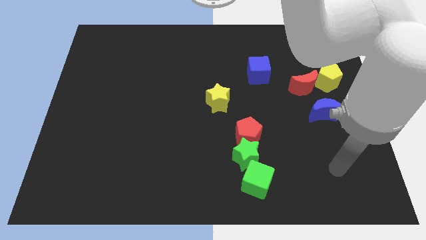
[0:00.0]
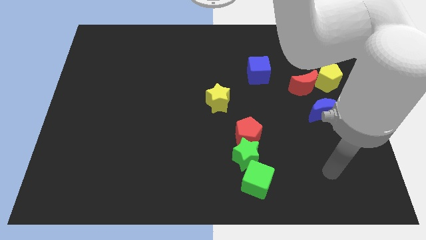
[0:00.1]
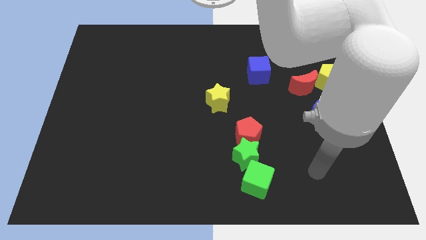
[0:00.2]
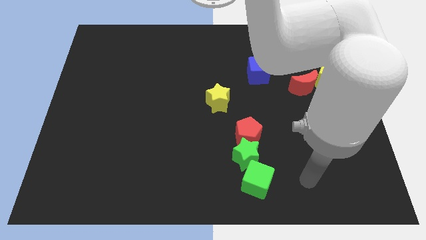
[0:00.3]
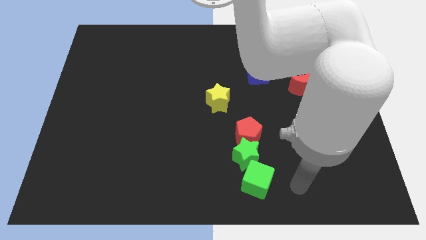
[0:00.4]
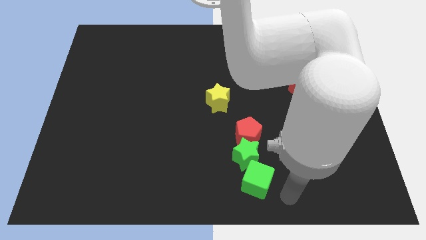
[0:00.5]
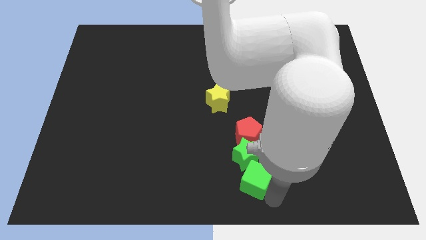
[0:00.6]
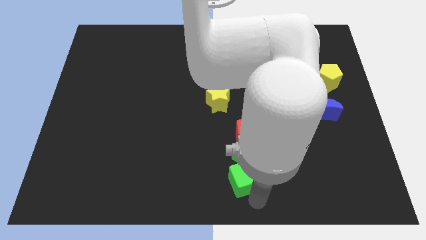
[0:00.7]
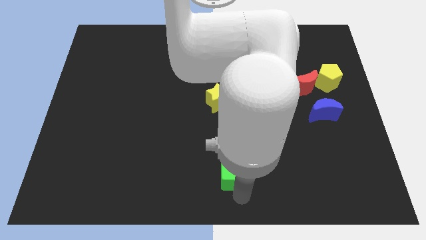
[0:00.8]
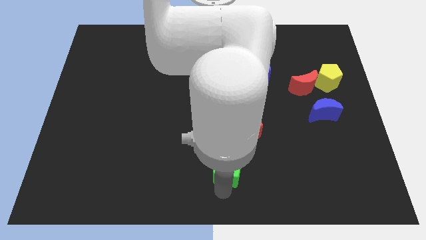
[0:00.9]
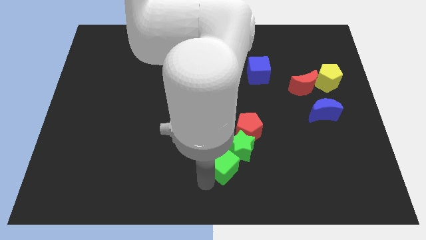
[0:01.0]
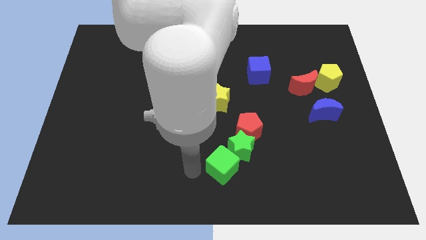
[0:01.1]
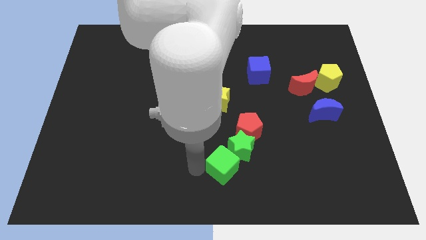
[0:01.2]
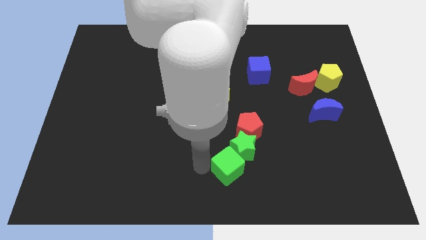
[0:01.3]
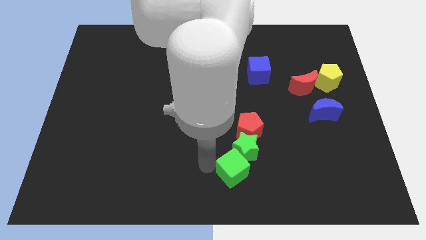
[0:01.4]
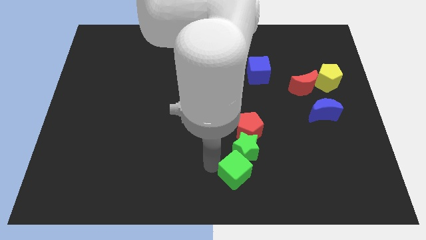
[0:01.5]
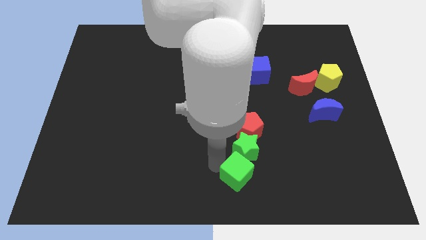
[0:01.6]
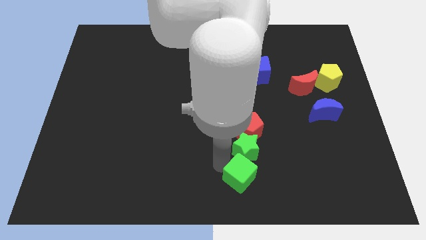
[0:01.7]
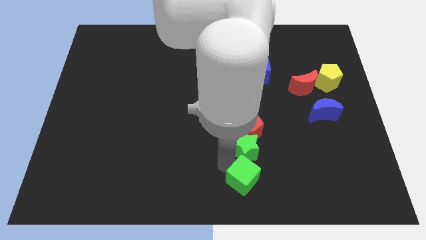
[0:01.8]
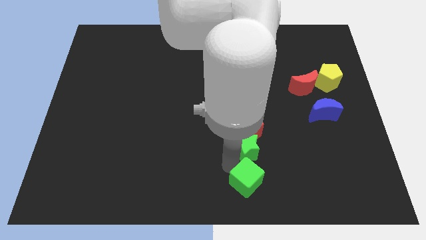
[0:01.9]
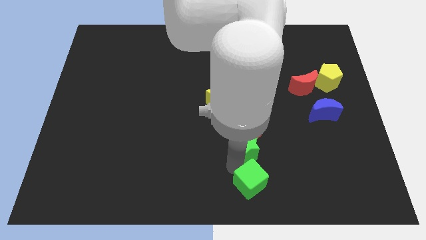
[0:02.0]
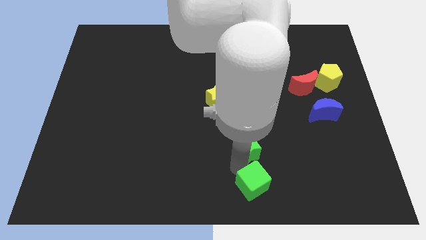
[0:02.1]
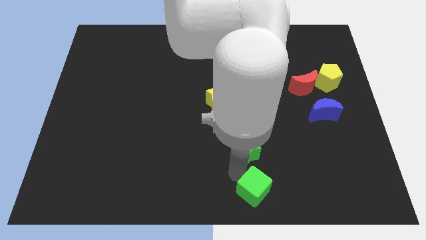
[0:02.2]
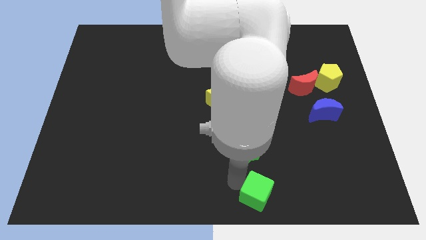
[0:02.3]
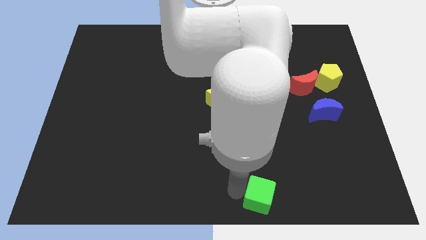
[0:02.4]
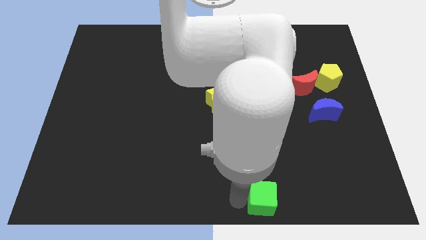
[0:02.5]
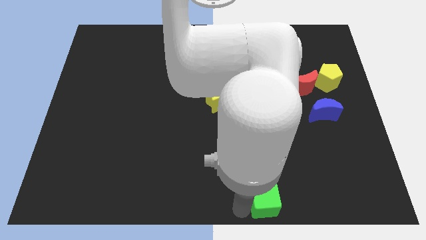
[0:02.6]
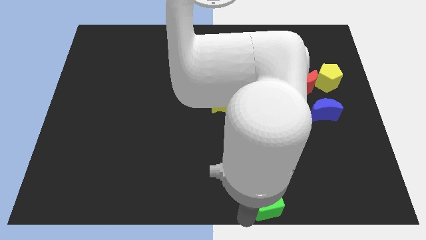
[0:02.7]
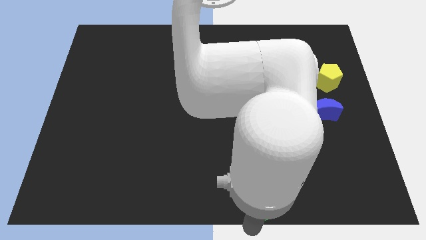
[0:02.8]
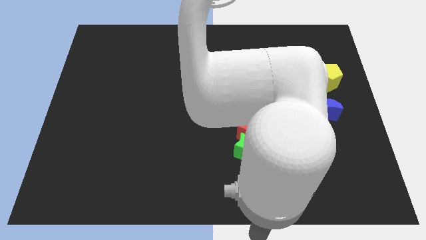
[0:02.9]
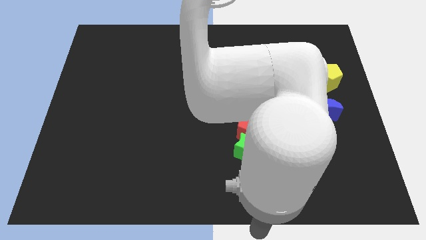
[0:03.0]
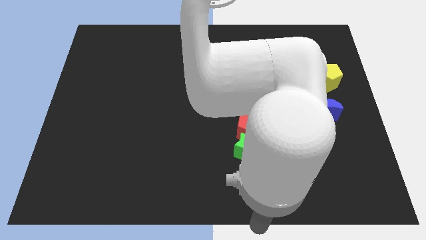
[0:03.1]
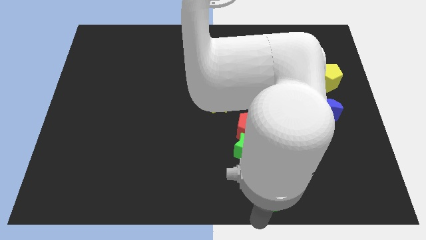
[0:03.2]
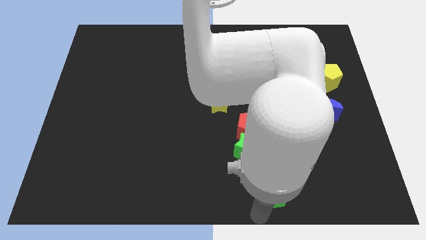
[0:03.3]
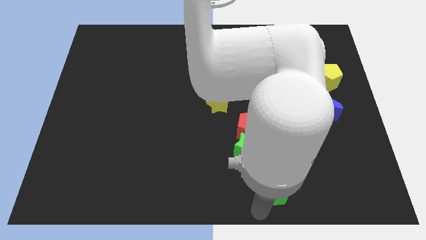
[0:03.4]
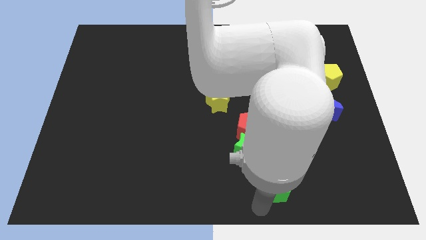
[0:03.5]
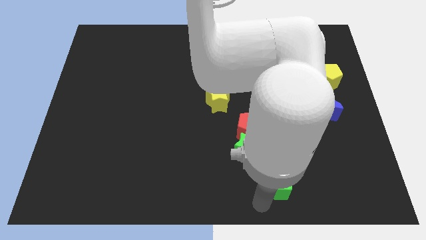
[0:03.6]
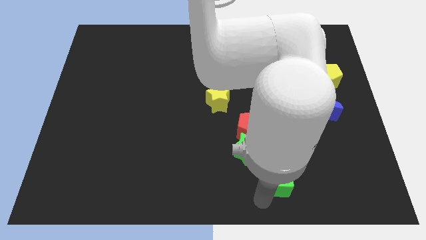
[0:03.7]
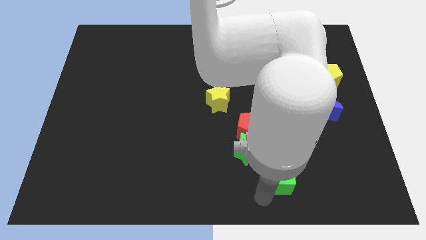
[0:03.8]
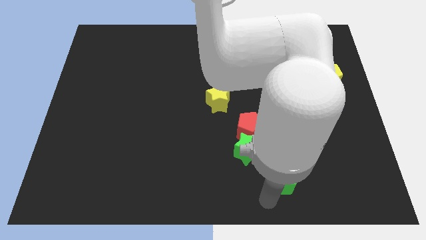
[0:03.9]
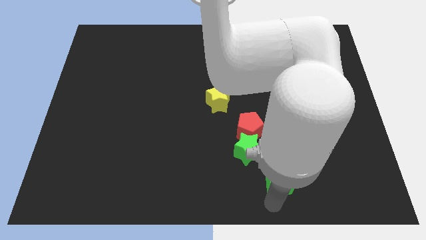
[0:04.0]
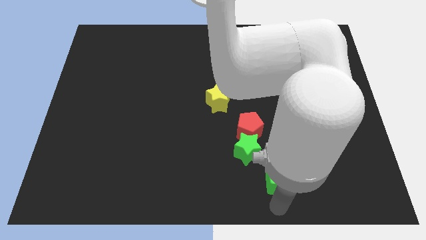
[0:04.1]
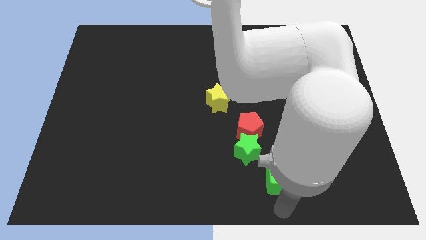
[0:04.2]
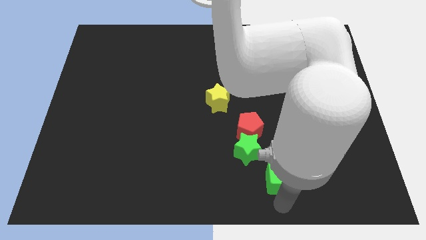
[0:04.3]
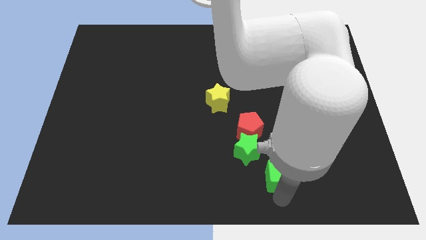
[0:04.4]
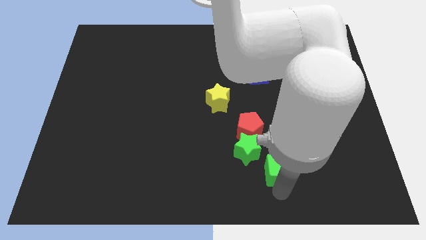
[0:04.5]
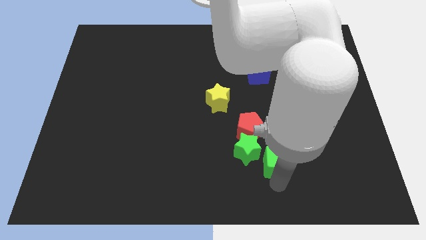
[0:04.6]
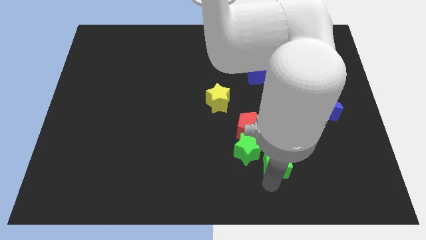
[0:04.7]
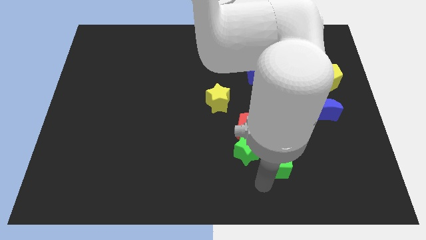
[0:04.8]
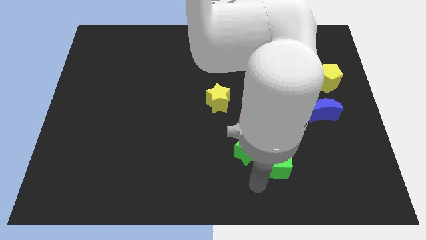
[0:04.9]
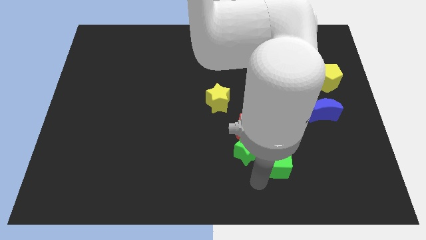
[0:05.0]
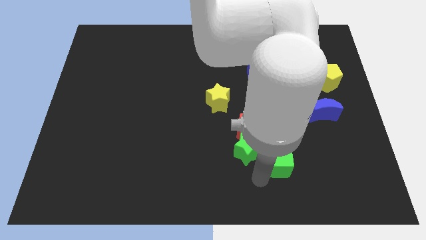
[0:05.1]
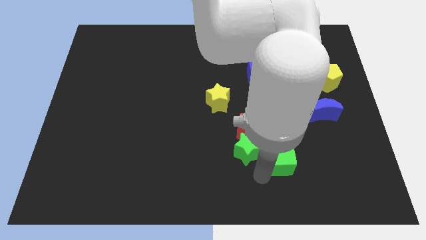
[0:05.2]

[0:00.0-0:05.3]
slide the green cube diagonally up and to the right slightly

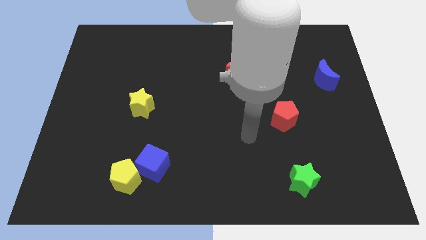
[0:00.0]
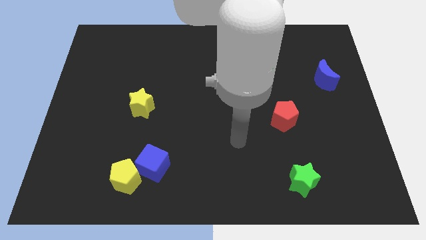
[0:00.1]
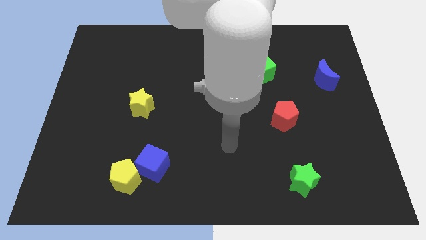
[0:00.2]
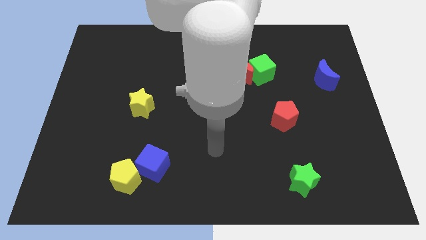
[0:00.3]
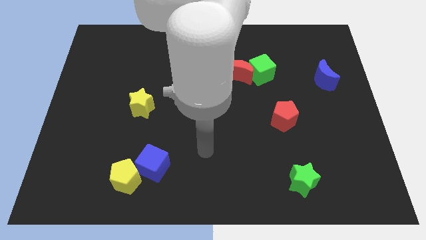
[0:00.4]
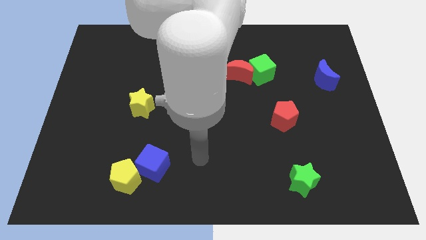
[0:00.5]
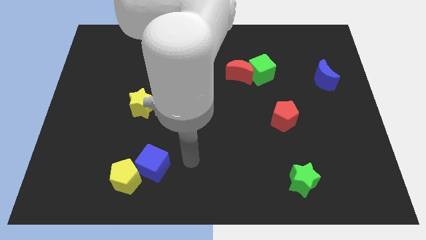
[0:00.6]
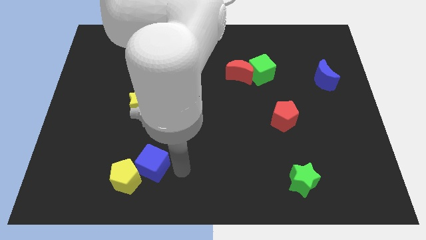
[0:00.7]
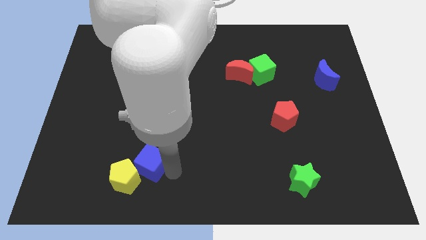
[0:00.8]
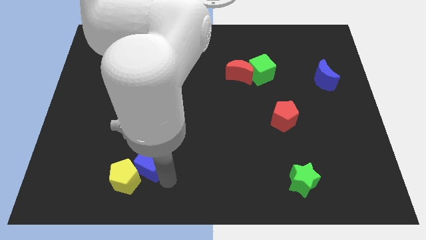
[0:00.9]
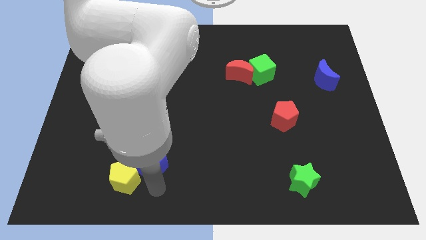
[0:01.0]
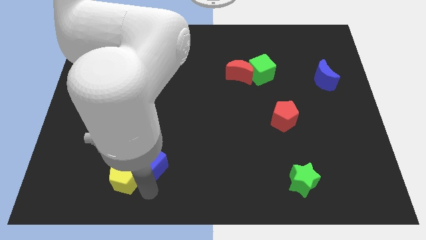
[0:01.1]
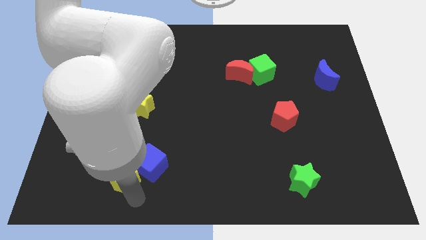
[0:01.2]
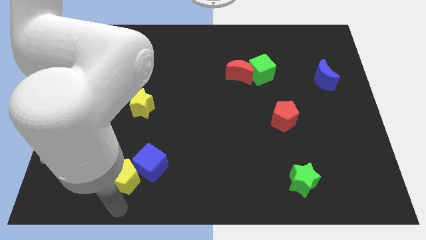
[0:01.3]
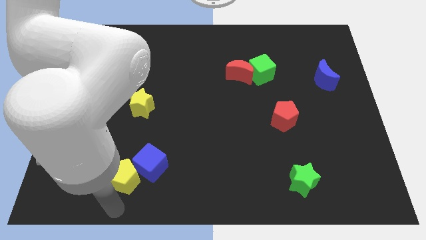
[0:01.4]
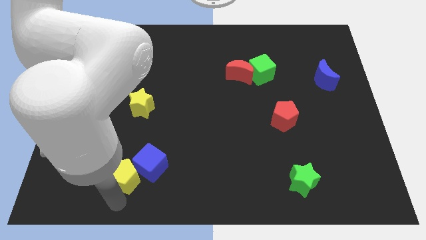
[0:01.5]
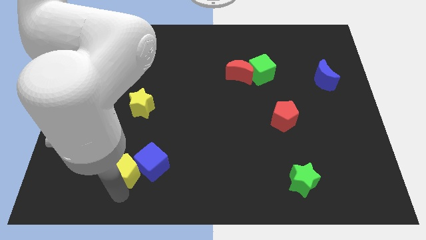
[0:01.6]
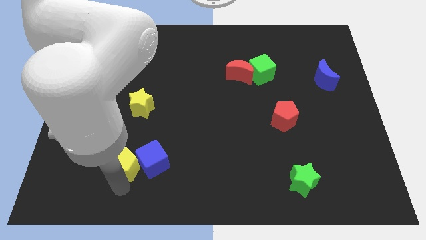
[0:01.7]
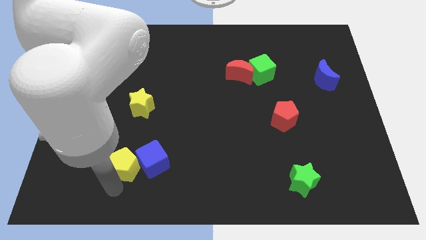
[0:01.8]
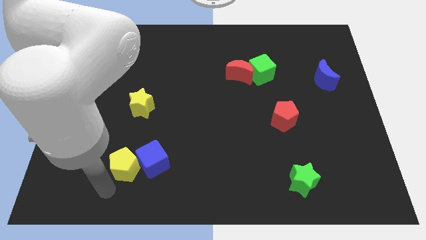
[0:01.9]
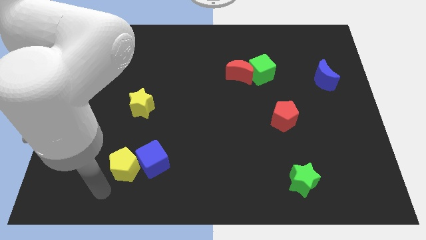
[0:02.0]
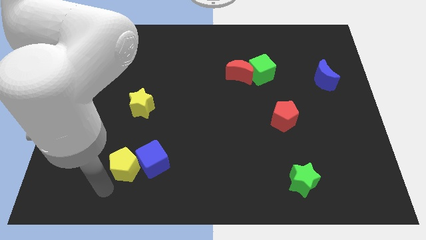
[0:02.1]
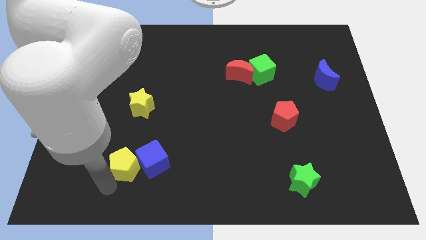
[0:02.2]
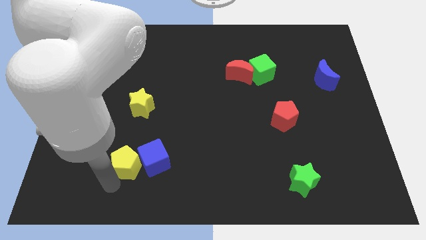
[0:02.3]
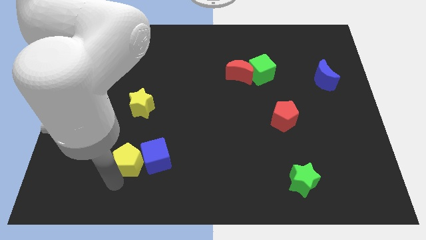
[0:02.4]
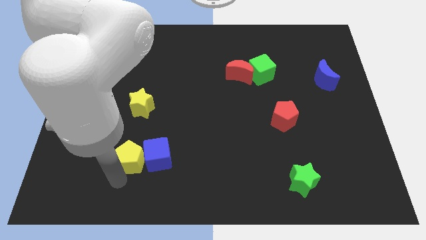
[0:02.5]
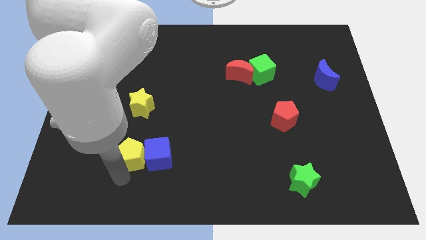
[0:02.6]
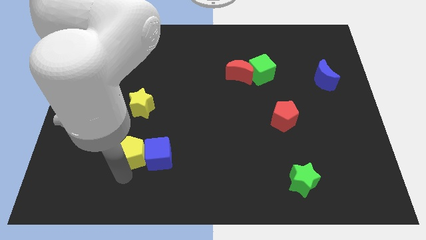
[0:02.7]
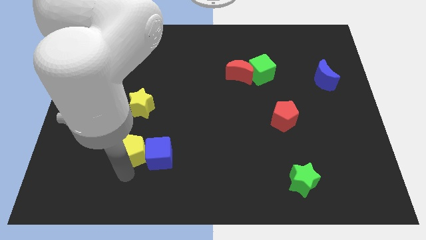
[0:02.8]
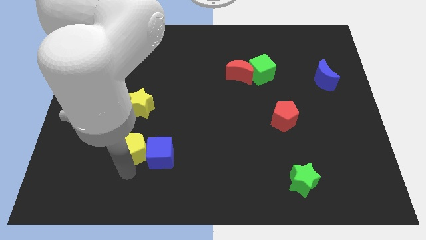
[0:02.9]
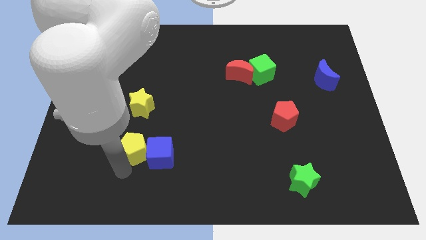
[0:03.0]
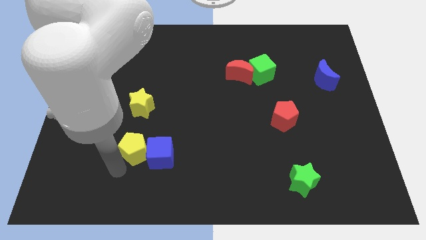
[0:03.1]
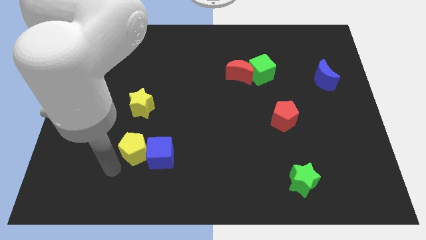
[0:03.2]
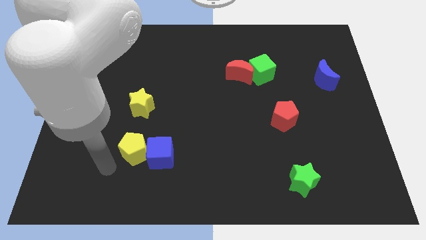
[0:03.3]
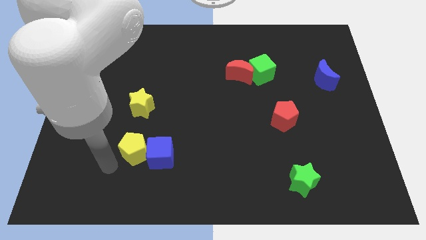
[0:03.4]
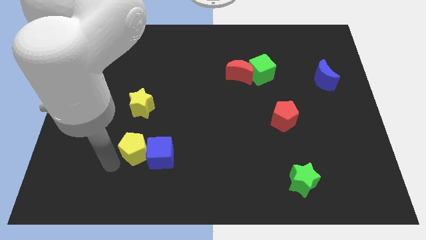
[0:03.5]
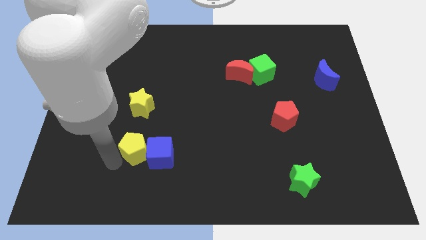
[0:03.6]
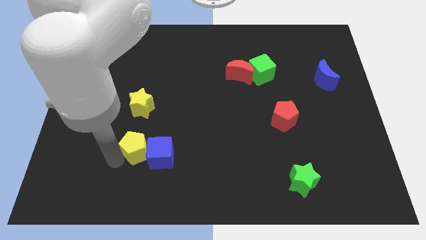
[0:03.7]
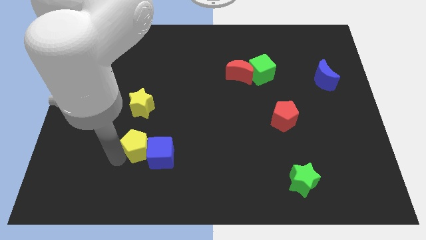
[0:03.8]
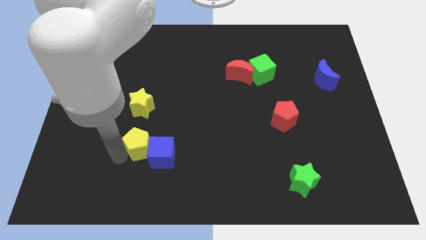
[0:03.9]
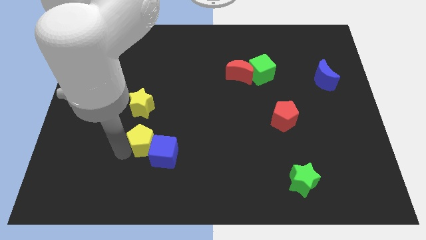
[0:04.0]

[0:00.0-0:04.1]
move the yellow pentagon a little bit up and then right
